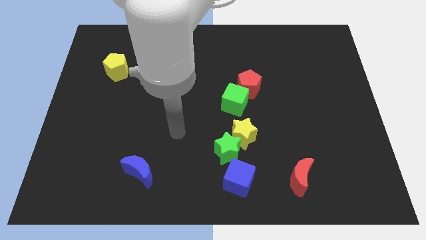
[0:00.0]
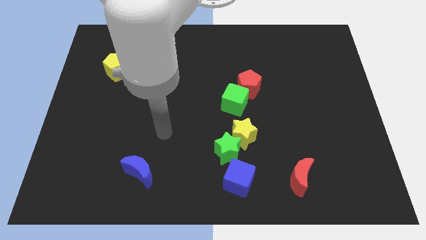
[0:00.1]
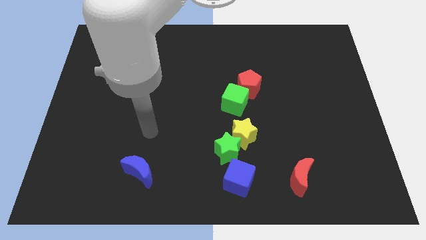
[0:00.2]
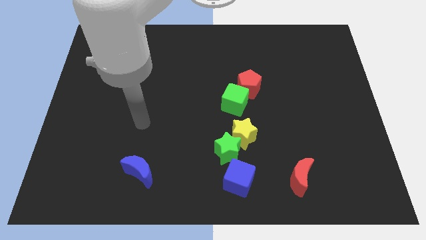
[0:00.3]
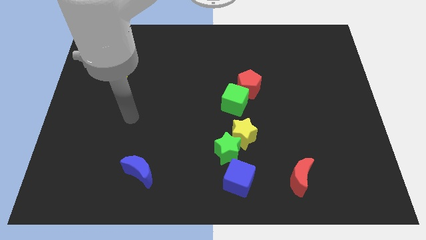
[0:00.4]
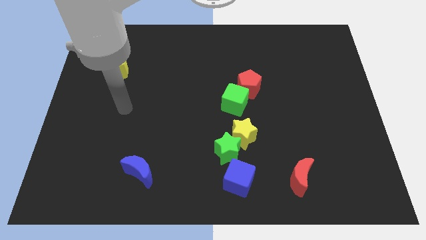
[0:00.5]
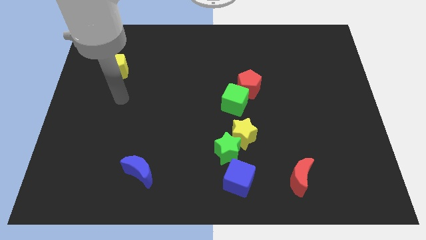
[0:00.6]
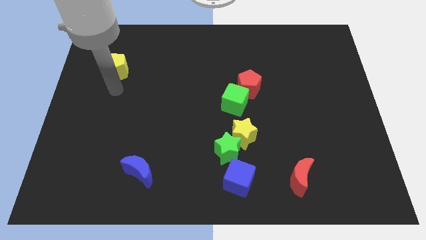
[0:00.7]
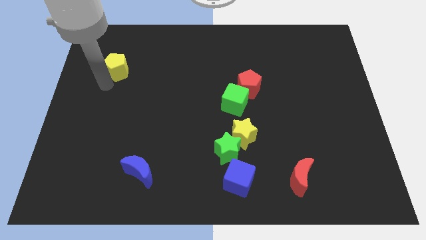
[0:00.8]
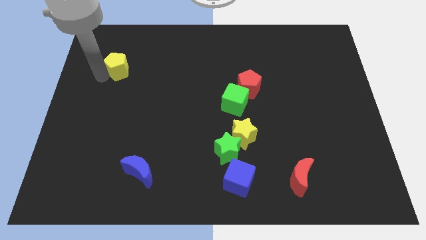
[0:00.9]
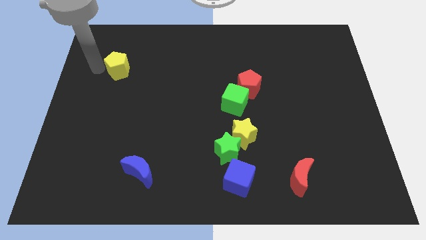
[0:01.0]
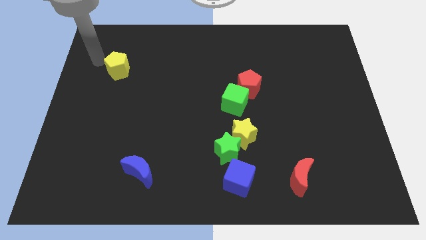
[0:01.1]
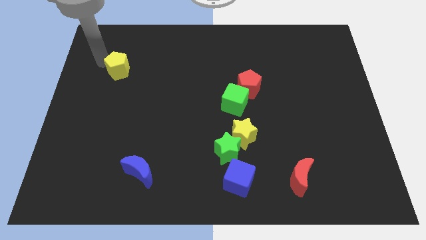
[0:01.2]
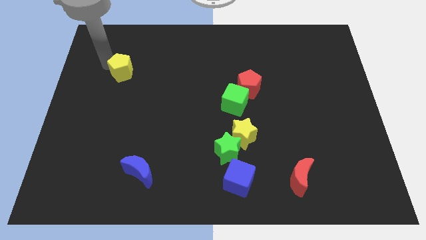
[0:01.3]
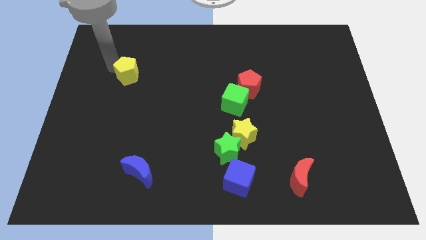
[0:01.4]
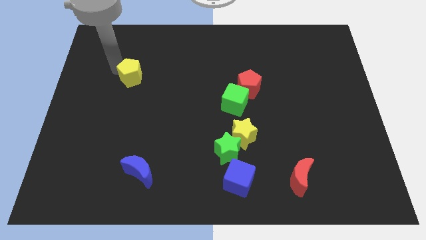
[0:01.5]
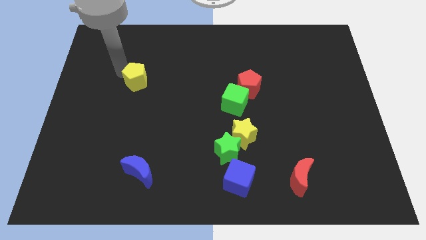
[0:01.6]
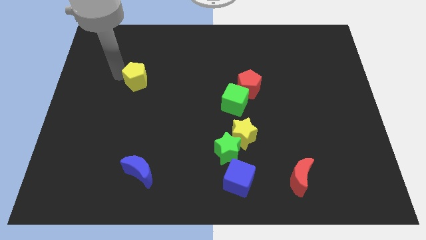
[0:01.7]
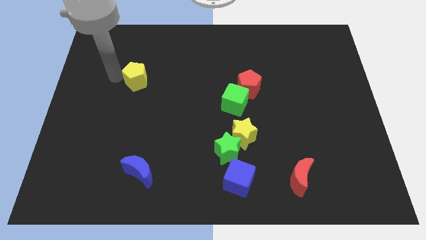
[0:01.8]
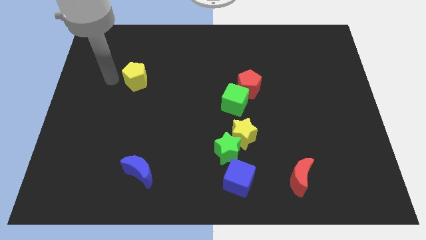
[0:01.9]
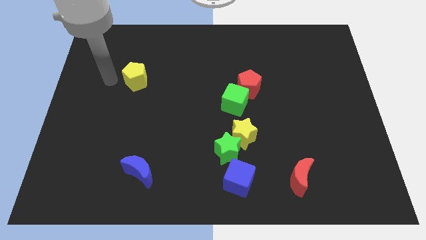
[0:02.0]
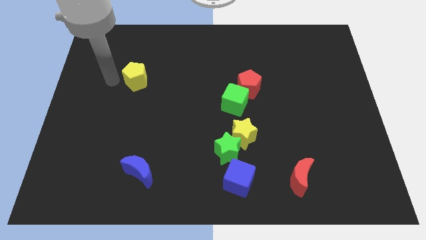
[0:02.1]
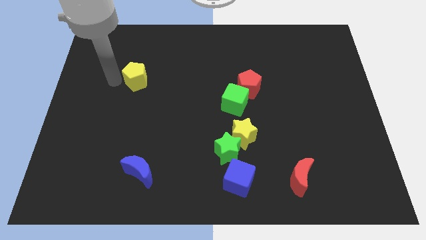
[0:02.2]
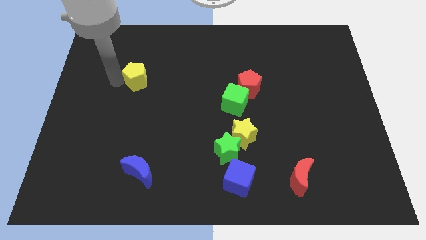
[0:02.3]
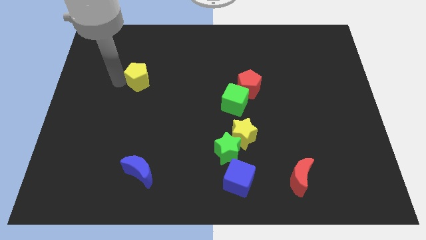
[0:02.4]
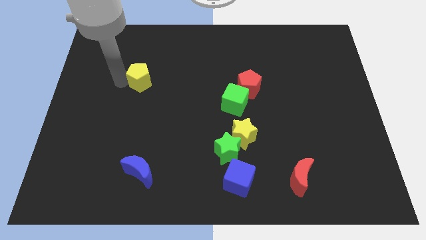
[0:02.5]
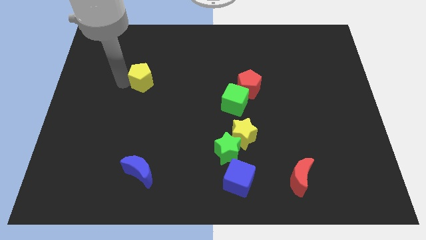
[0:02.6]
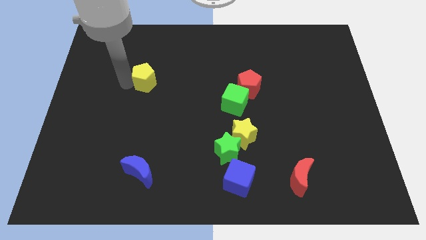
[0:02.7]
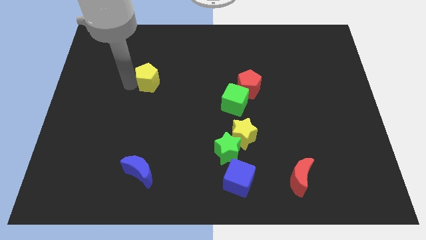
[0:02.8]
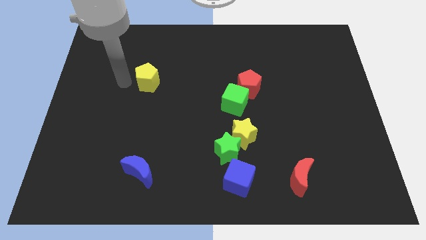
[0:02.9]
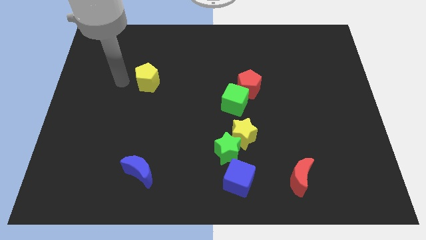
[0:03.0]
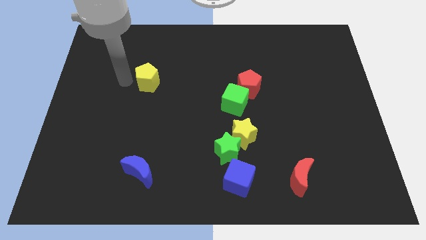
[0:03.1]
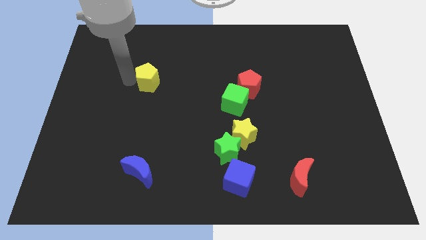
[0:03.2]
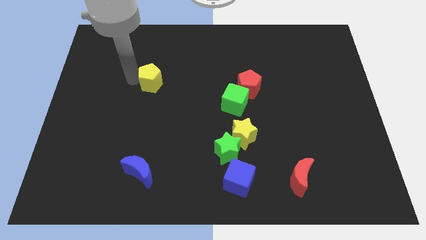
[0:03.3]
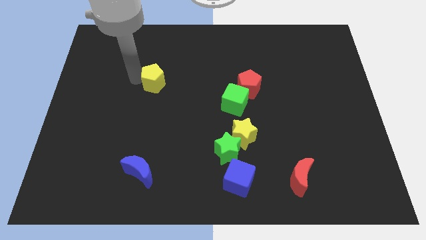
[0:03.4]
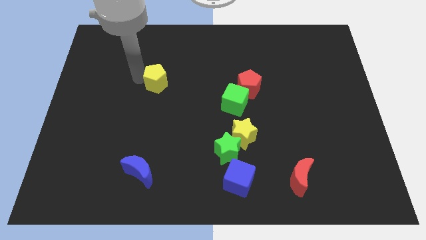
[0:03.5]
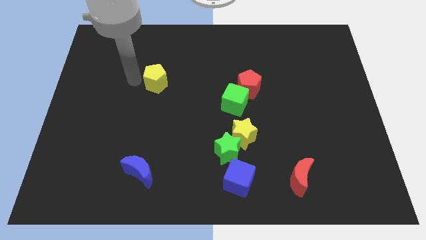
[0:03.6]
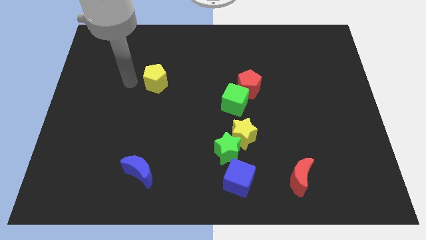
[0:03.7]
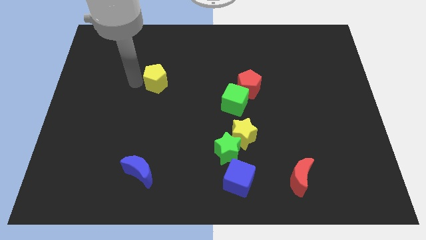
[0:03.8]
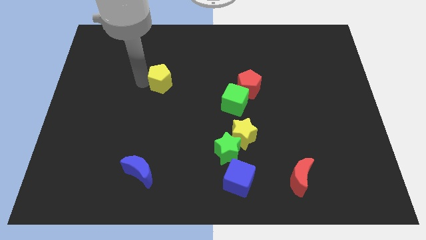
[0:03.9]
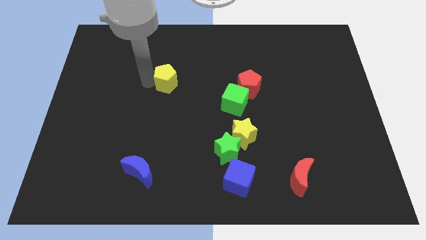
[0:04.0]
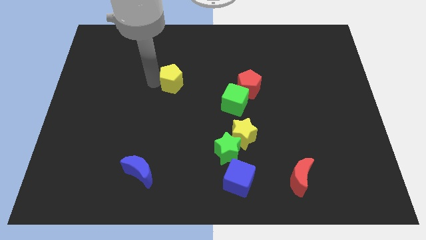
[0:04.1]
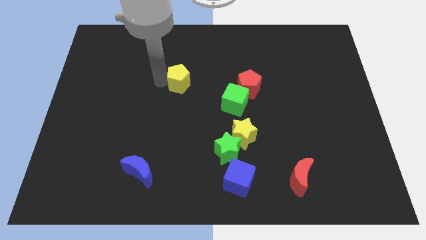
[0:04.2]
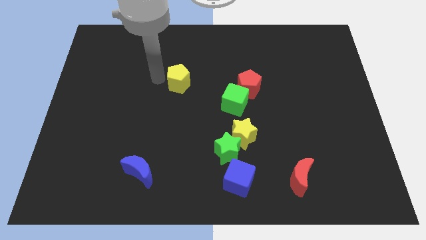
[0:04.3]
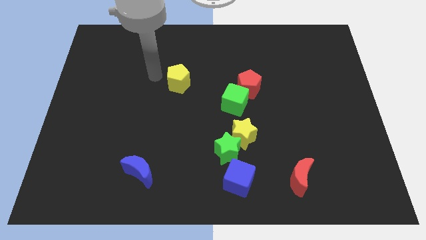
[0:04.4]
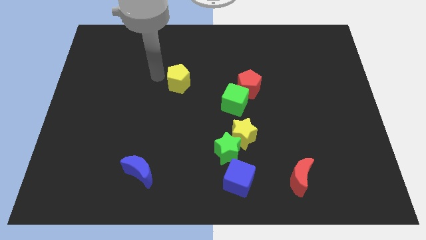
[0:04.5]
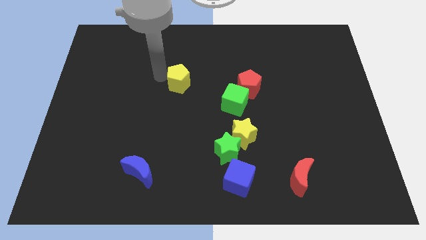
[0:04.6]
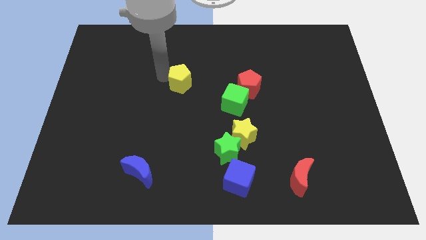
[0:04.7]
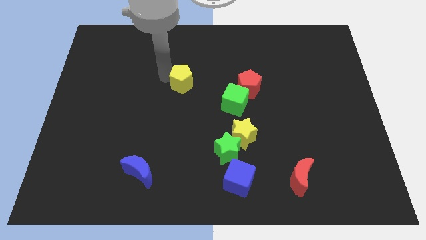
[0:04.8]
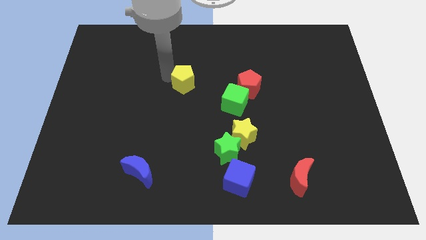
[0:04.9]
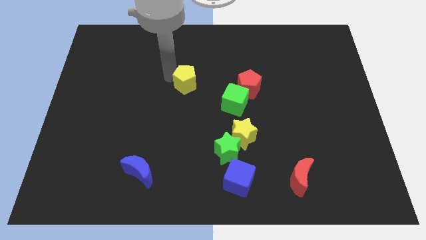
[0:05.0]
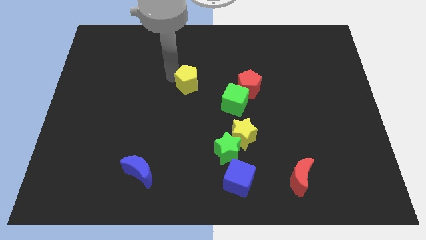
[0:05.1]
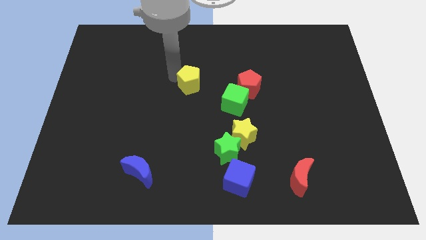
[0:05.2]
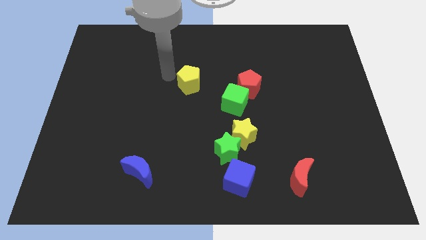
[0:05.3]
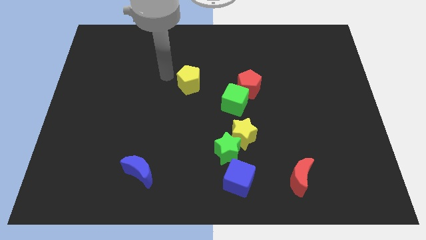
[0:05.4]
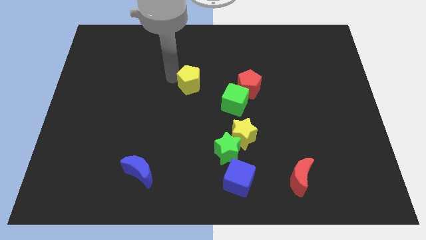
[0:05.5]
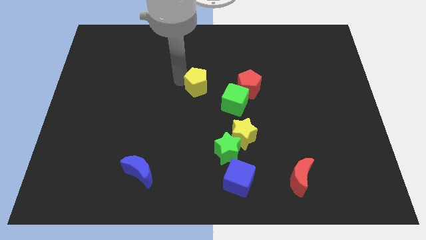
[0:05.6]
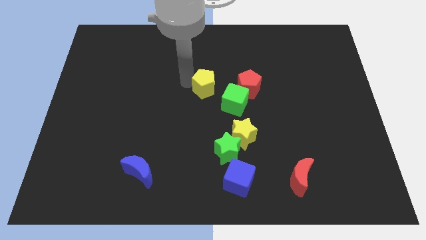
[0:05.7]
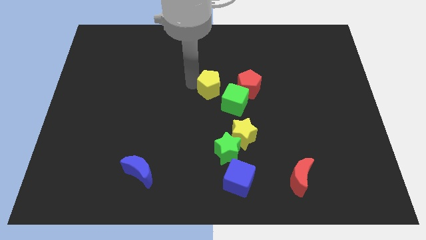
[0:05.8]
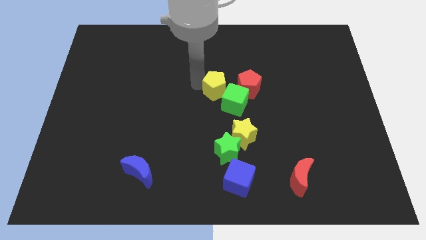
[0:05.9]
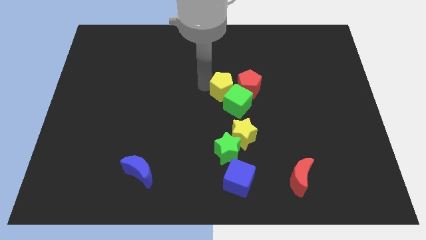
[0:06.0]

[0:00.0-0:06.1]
put the yellow pentagon close to the green cube

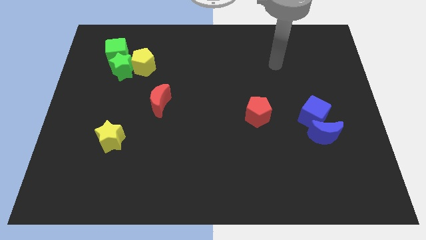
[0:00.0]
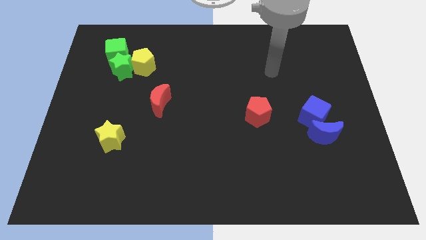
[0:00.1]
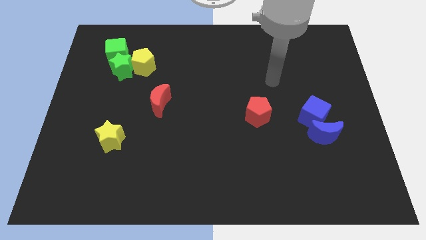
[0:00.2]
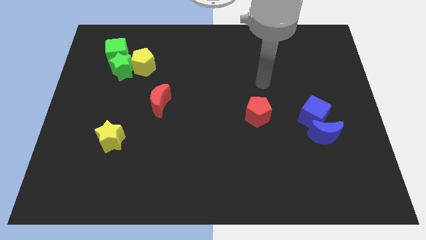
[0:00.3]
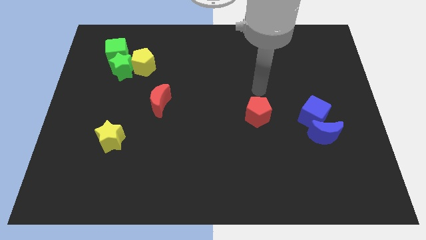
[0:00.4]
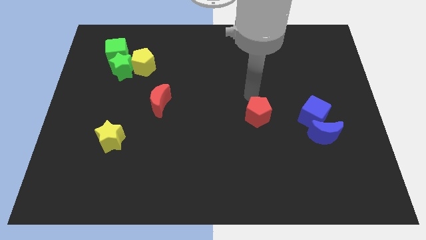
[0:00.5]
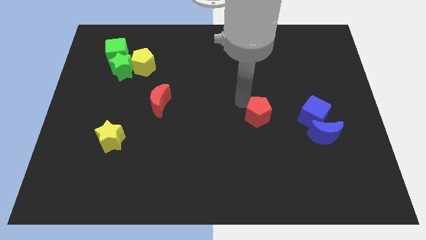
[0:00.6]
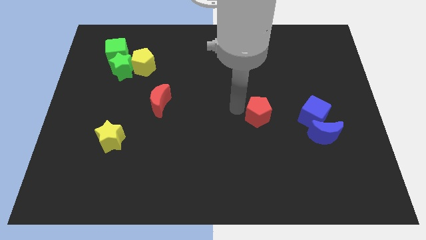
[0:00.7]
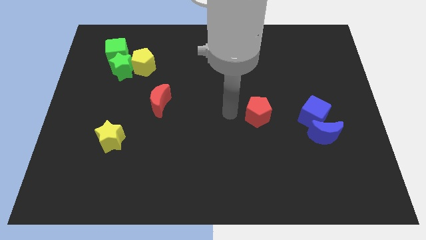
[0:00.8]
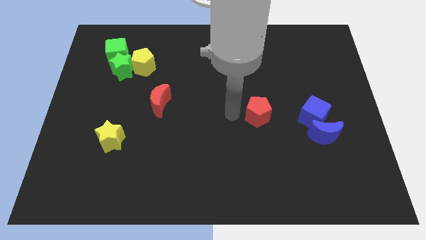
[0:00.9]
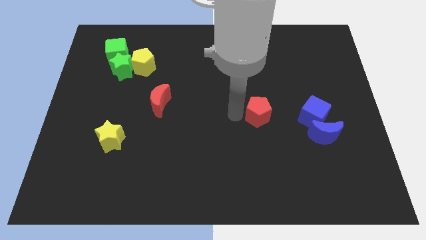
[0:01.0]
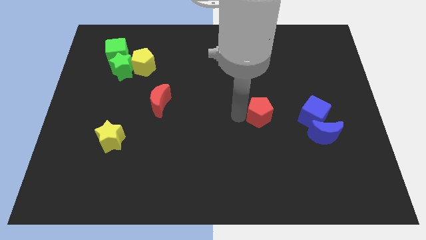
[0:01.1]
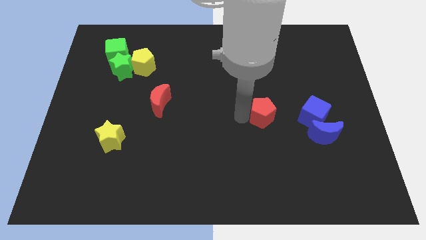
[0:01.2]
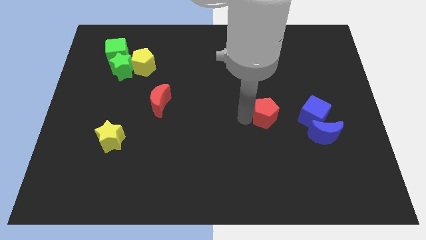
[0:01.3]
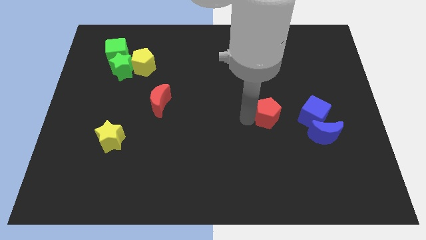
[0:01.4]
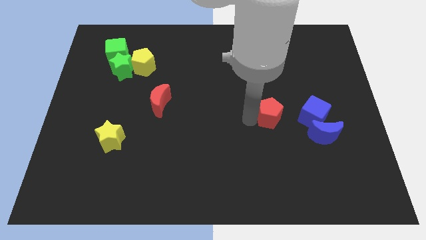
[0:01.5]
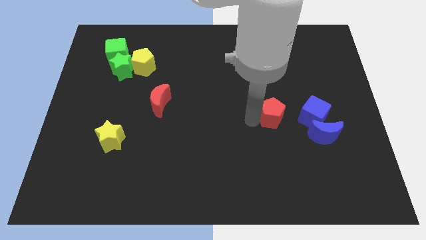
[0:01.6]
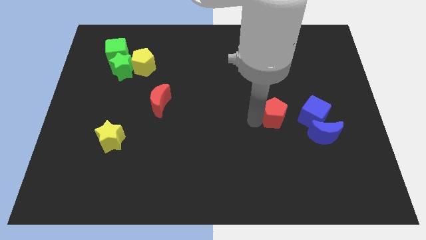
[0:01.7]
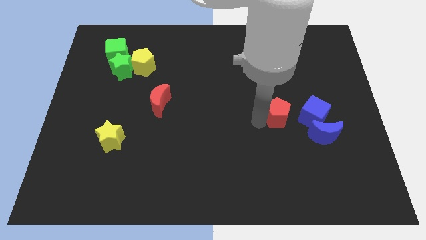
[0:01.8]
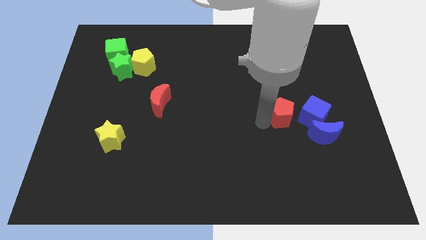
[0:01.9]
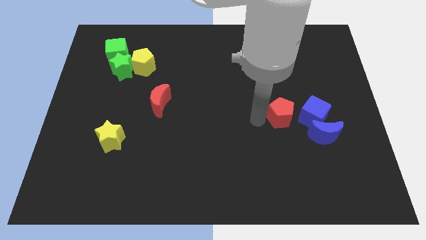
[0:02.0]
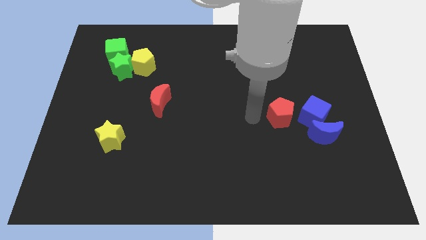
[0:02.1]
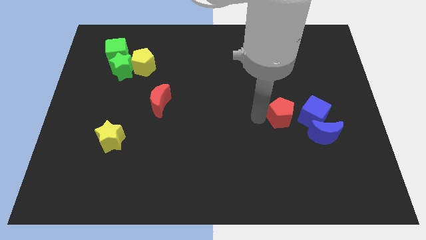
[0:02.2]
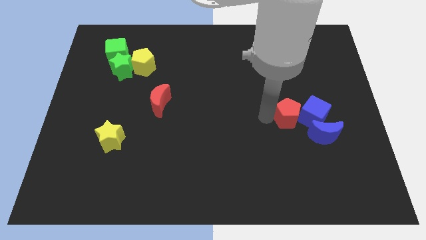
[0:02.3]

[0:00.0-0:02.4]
put the red pentagon next to the blue cube
